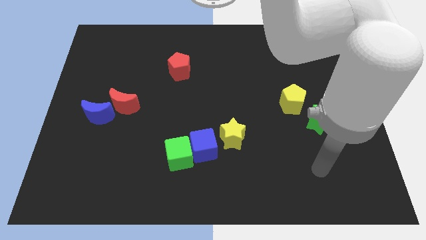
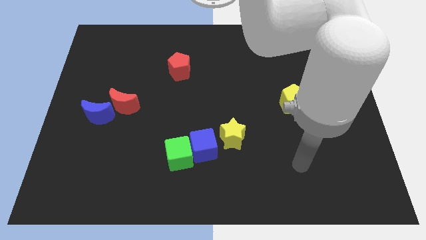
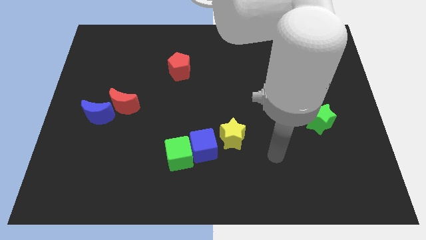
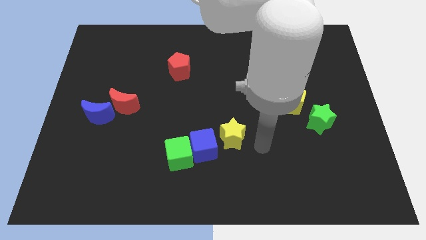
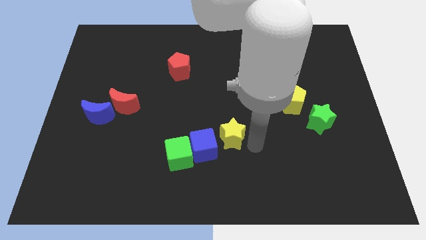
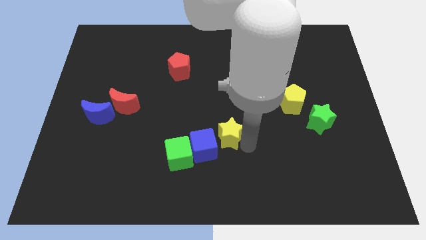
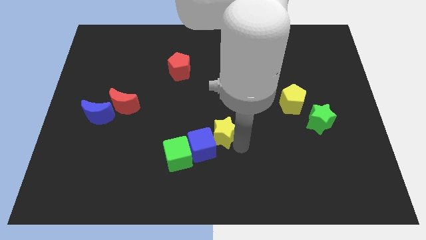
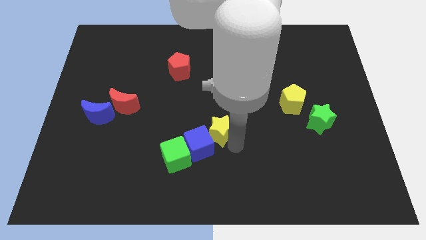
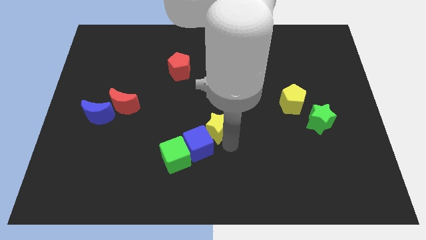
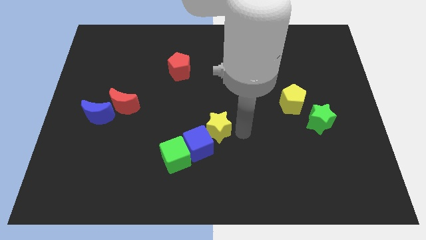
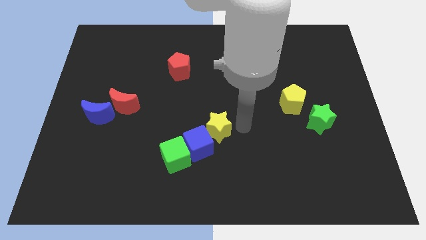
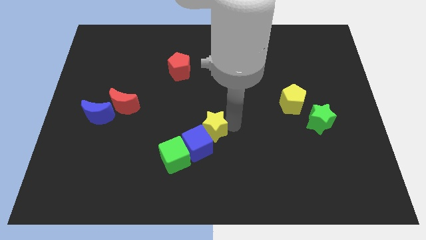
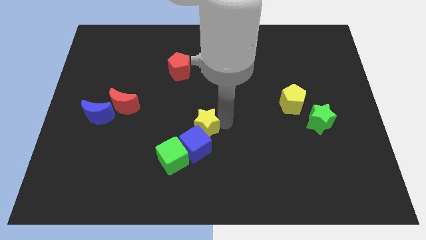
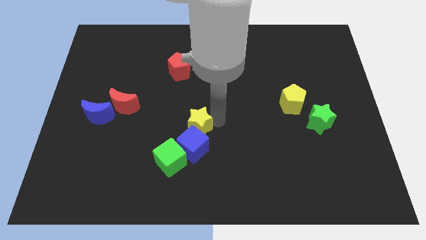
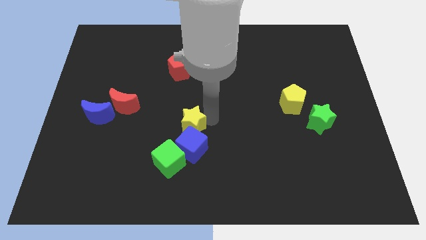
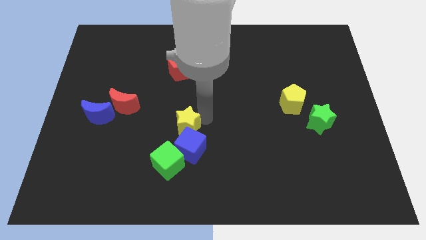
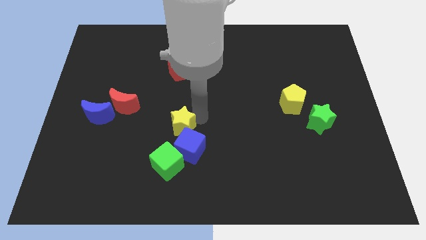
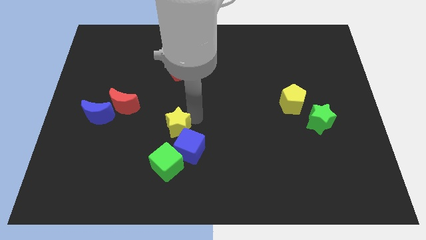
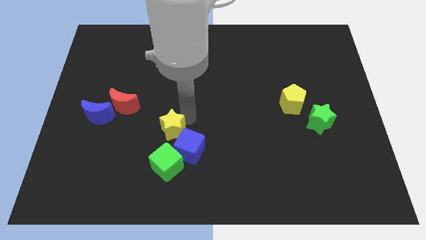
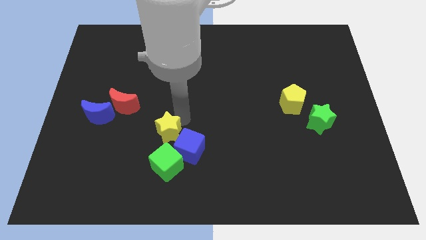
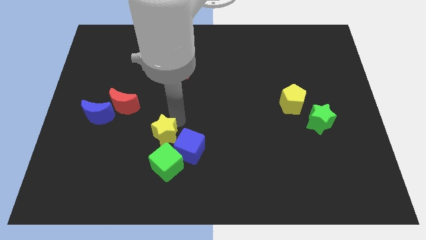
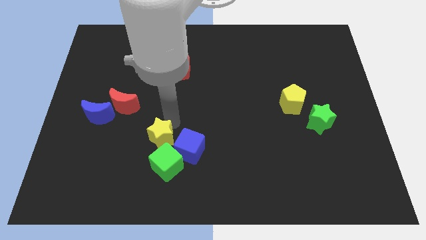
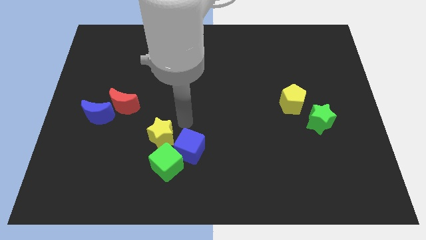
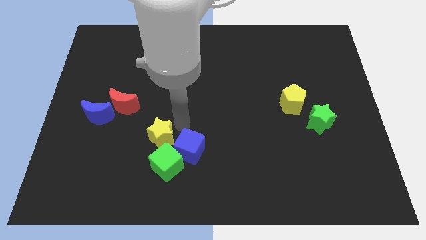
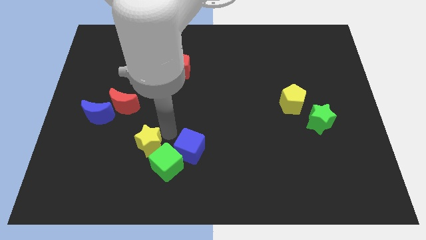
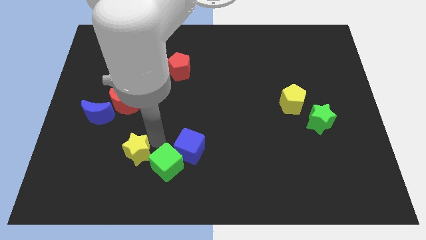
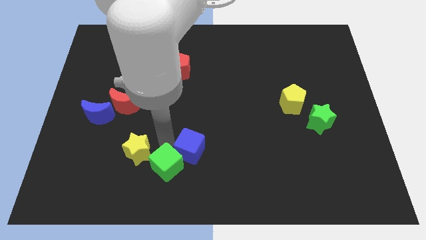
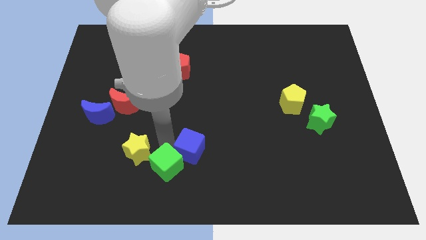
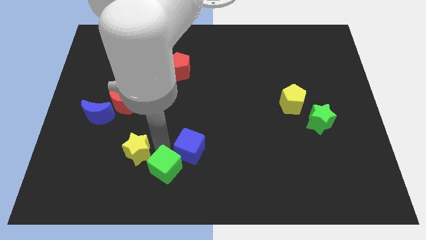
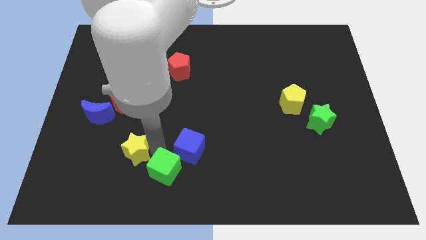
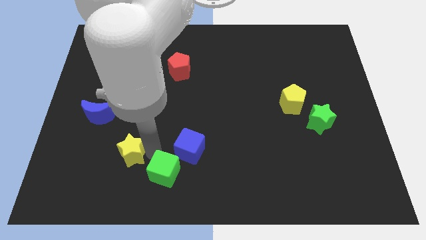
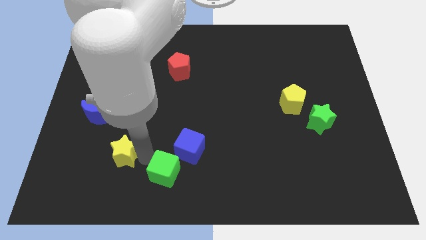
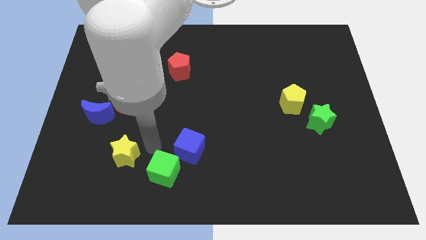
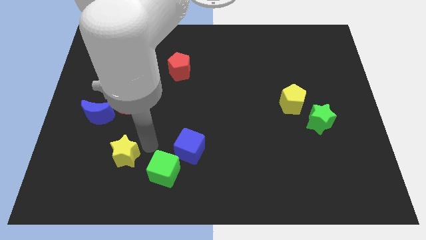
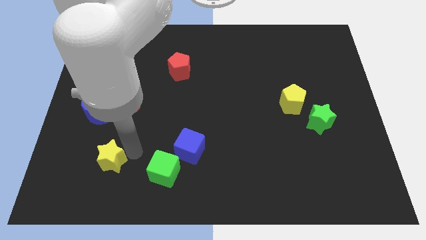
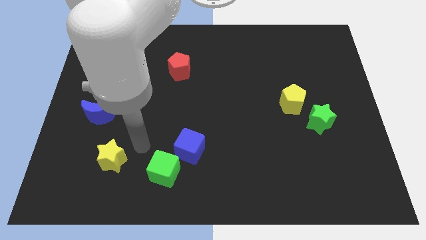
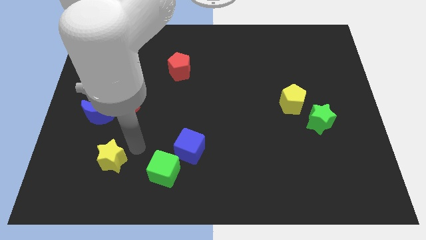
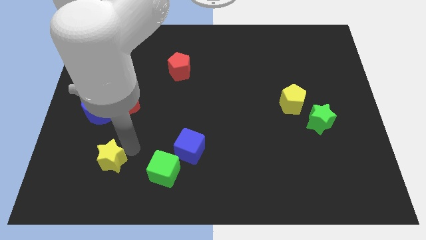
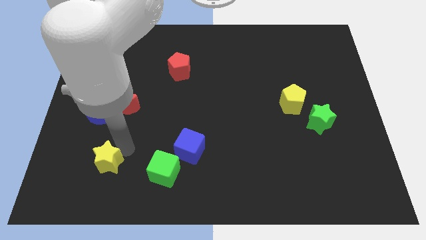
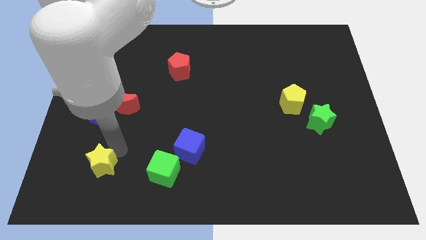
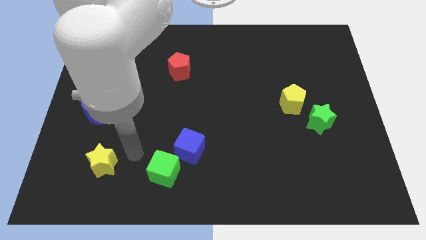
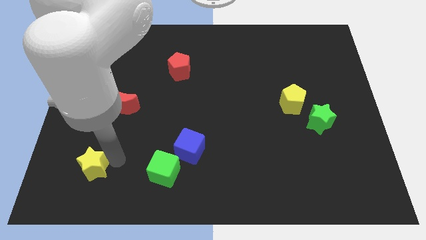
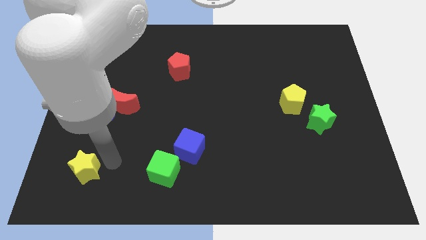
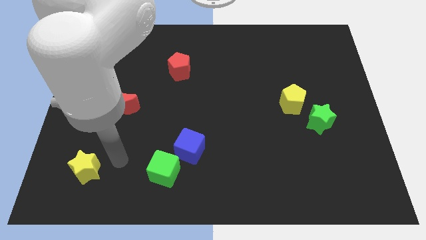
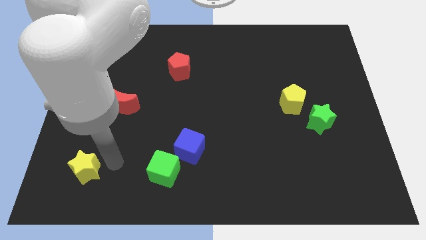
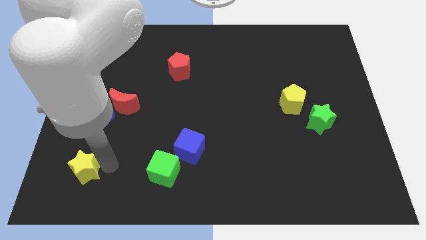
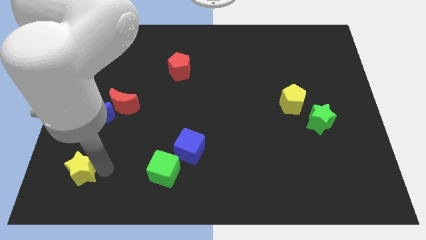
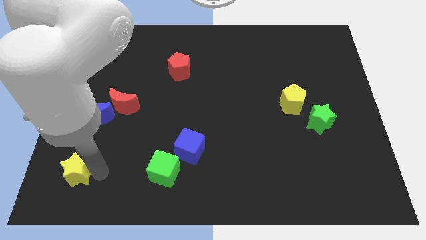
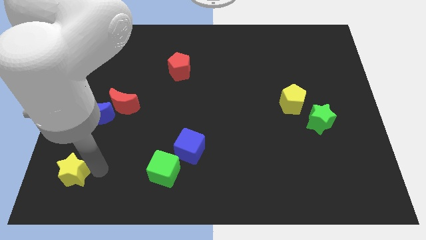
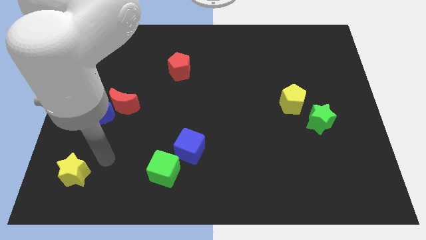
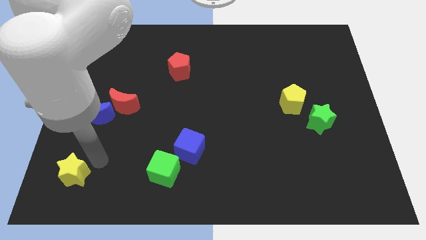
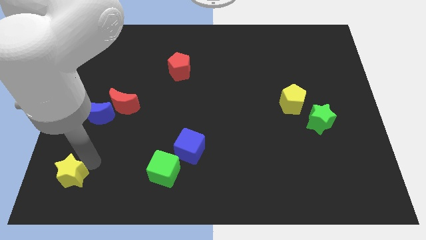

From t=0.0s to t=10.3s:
push the yellow star to the lower left corner

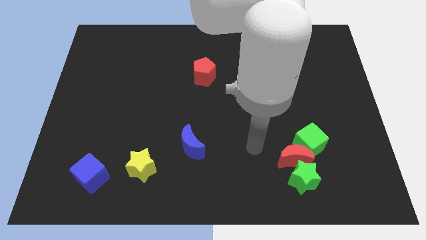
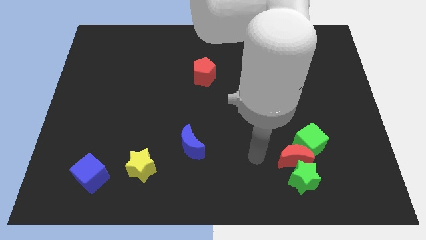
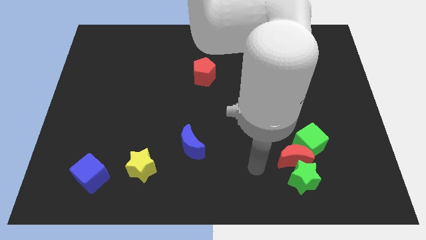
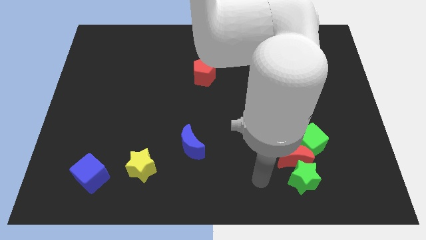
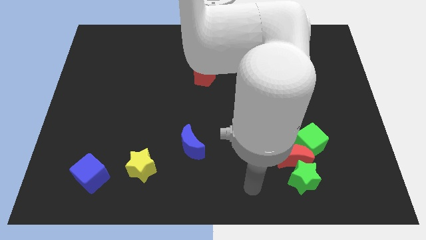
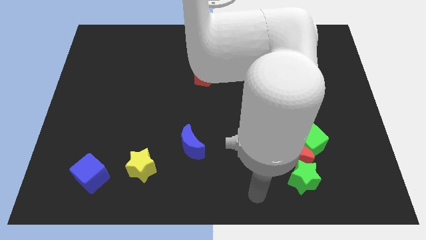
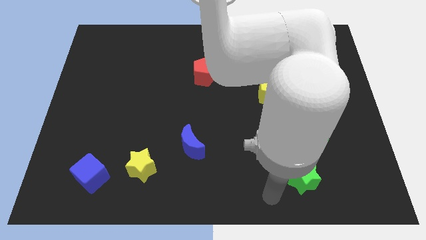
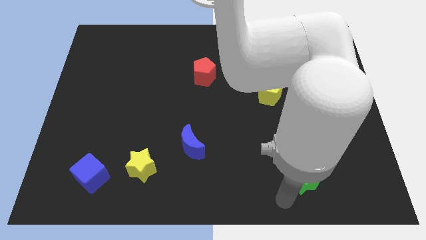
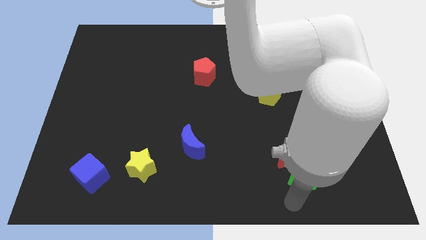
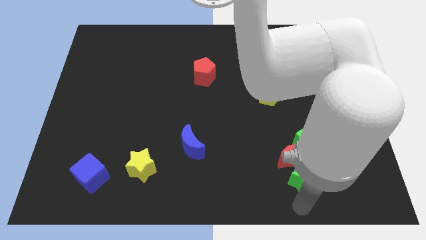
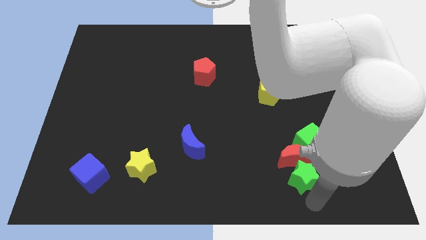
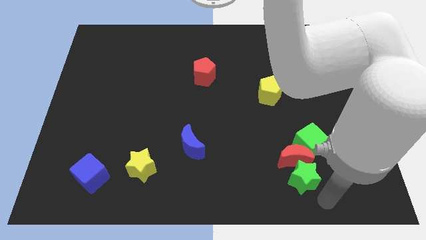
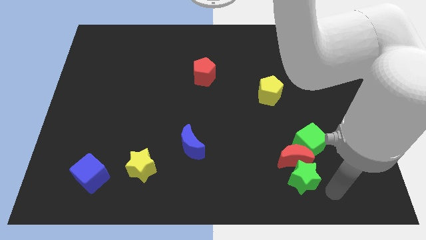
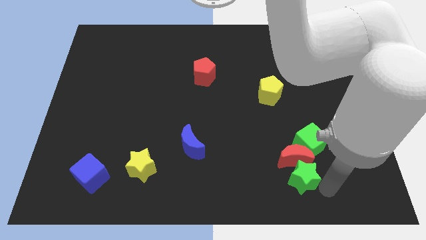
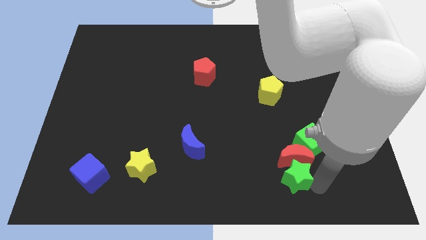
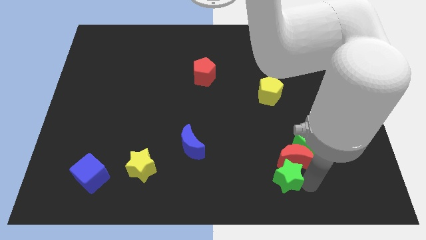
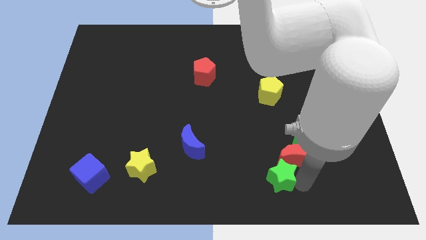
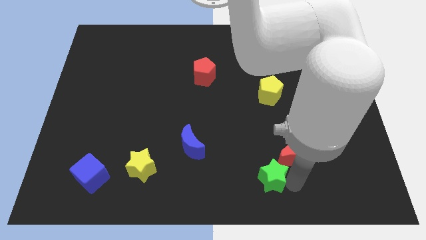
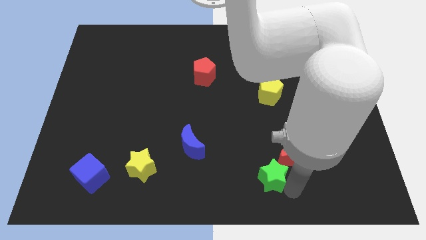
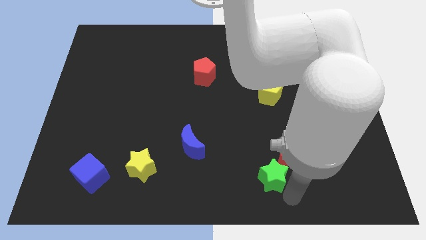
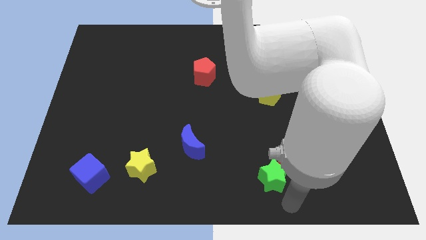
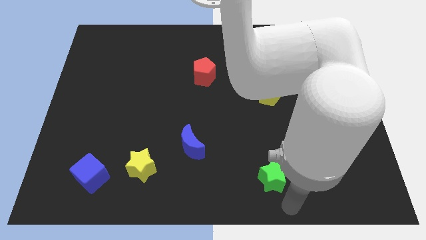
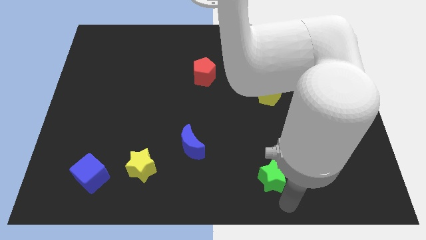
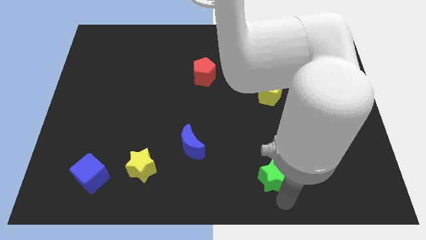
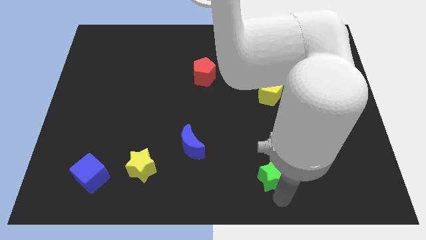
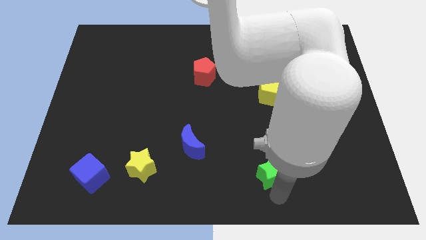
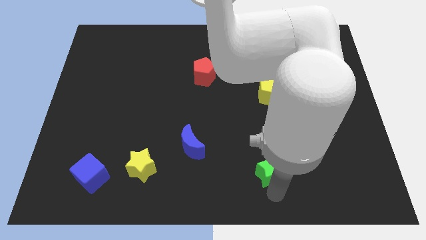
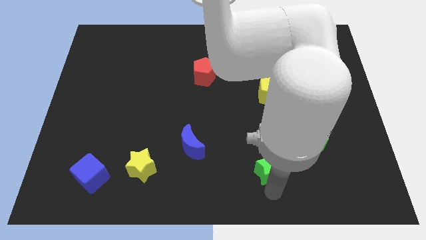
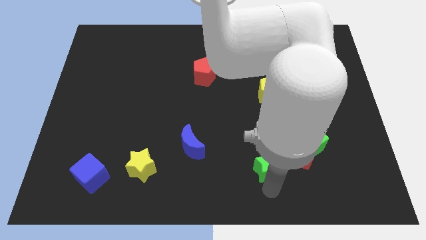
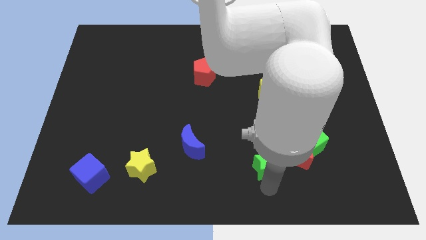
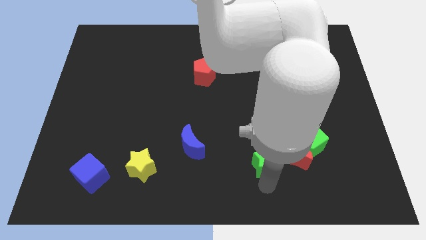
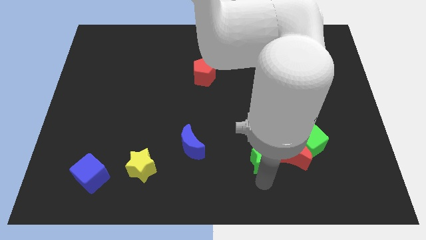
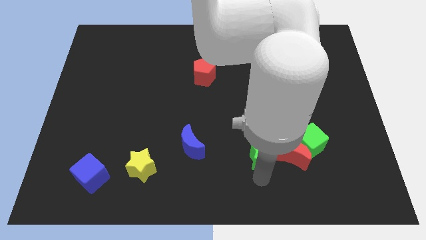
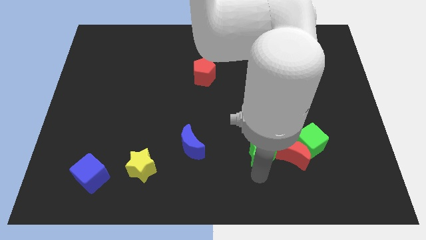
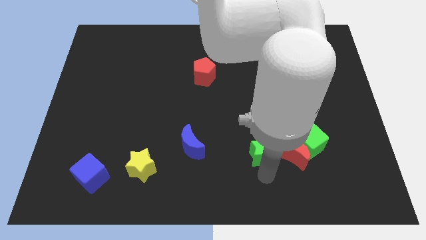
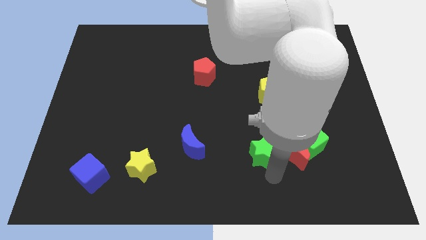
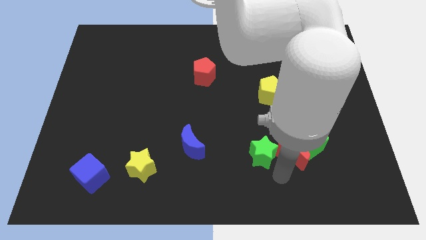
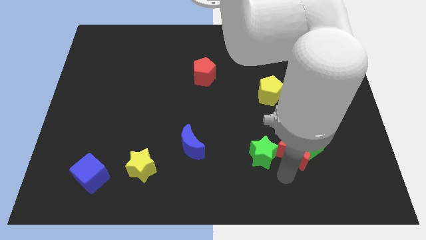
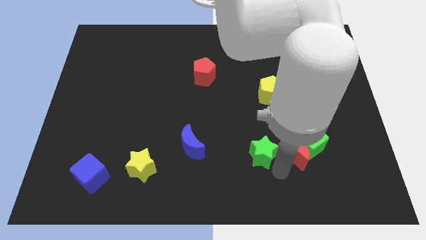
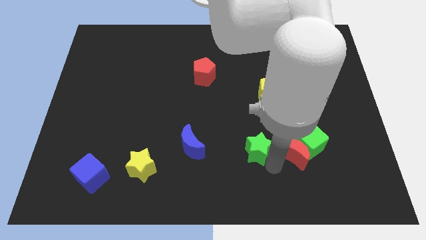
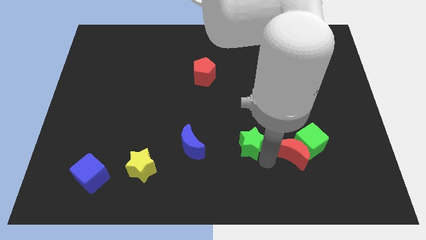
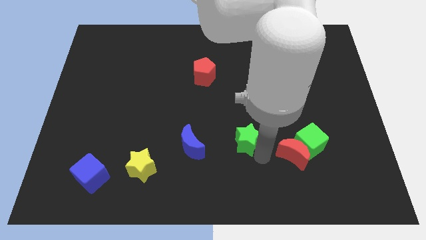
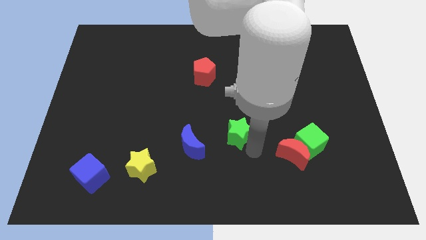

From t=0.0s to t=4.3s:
push the green star to the middle
